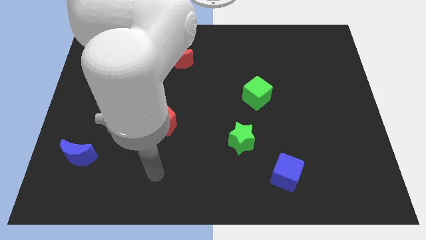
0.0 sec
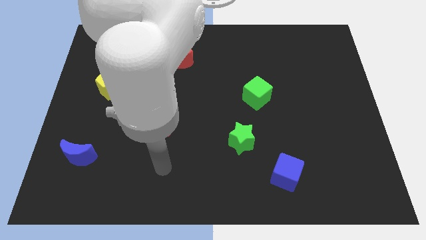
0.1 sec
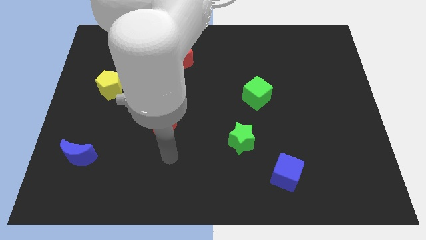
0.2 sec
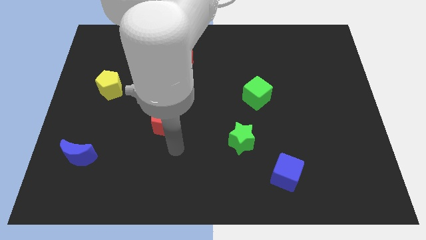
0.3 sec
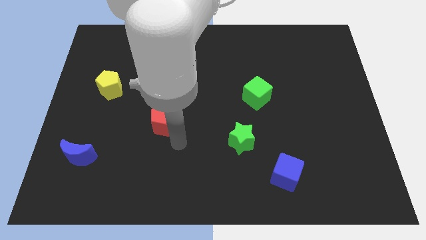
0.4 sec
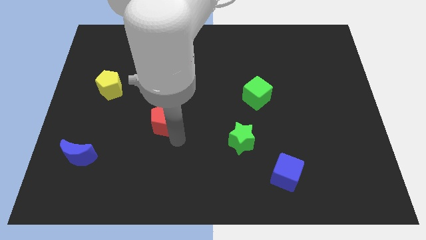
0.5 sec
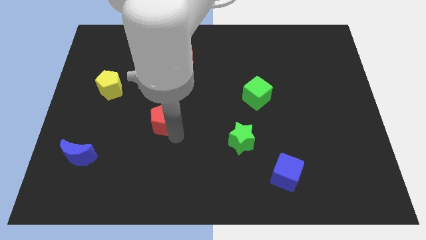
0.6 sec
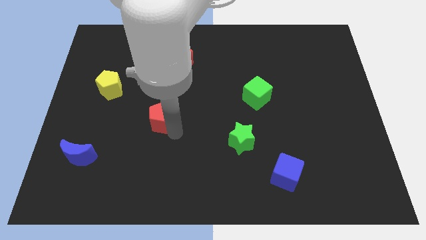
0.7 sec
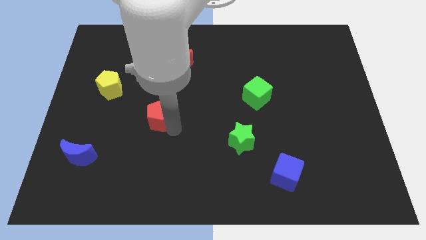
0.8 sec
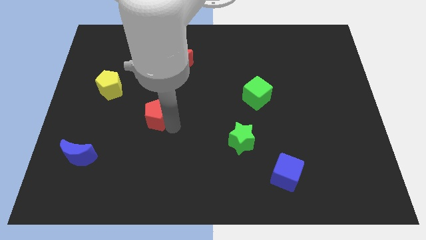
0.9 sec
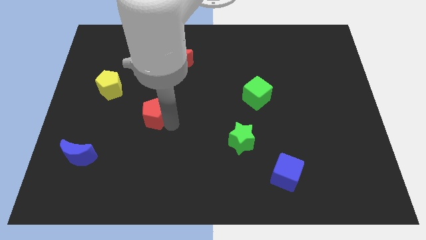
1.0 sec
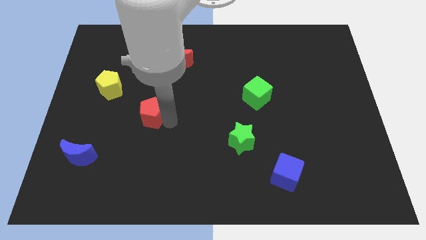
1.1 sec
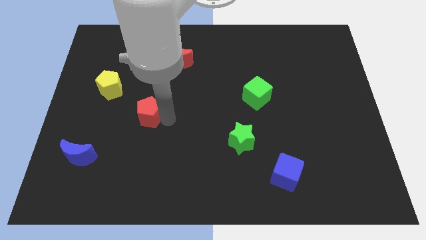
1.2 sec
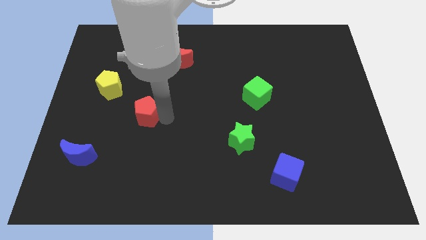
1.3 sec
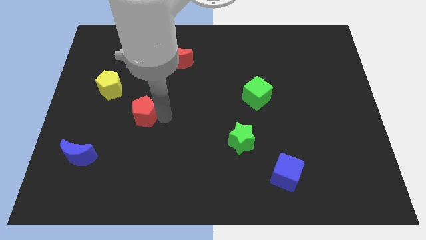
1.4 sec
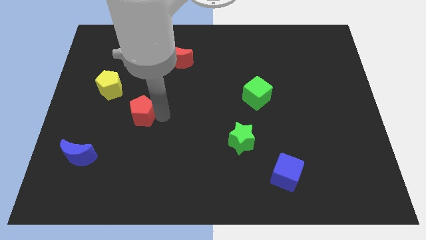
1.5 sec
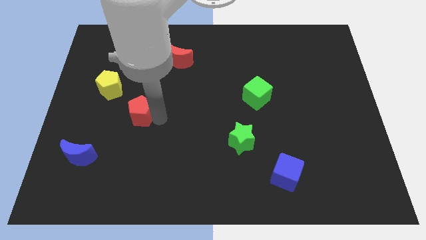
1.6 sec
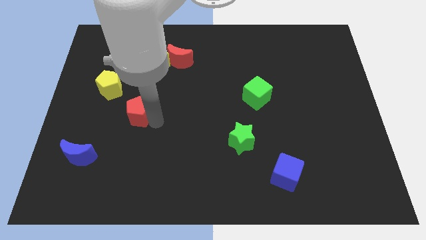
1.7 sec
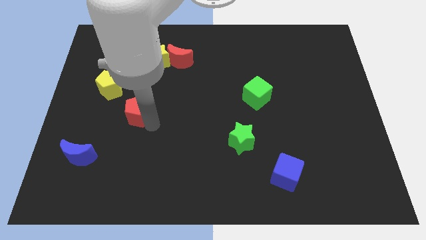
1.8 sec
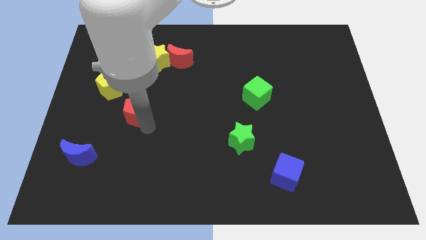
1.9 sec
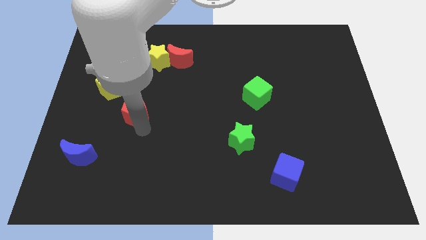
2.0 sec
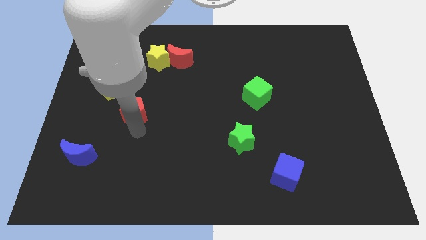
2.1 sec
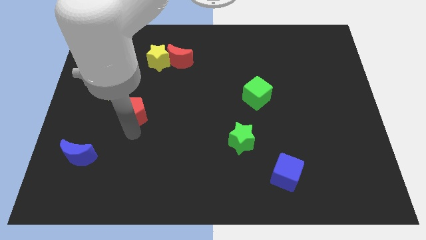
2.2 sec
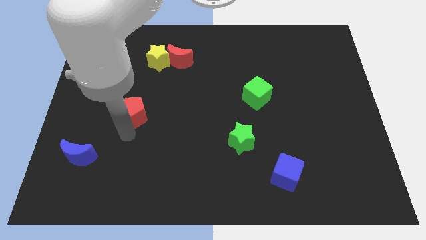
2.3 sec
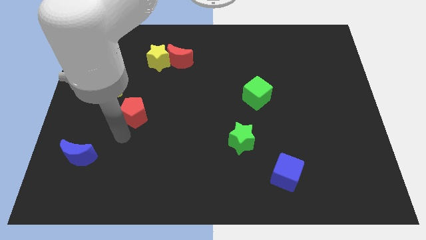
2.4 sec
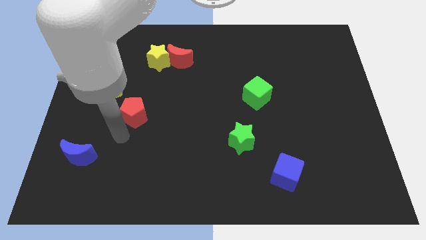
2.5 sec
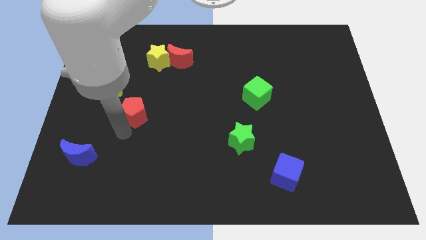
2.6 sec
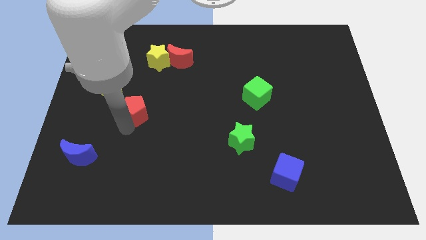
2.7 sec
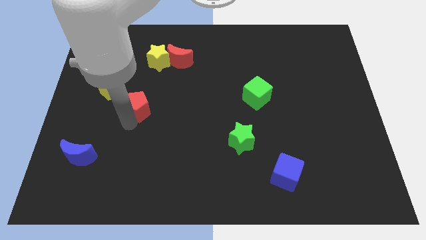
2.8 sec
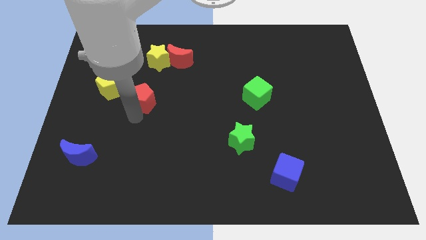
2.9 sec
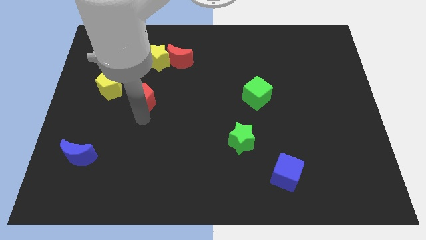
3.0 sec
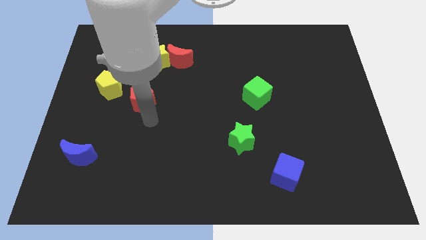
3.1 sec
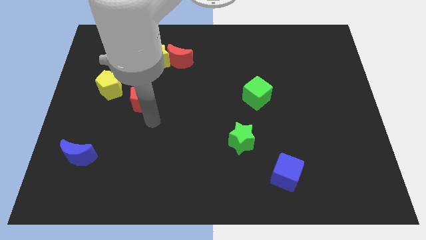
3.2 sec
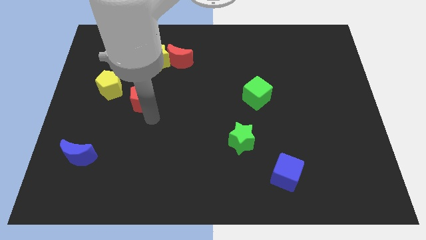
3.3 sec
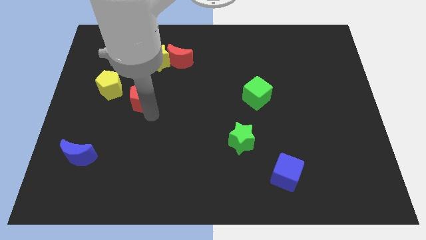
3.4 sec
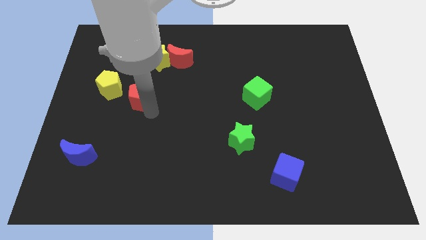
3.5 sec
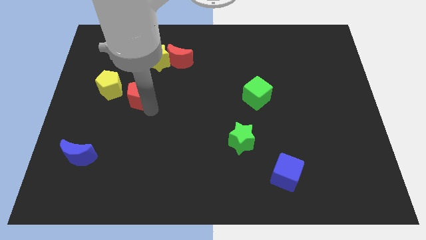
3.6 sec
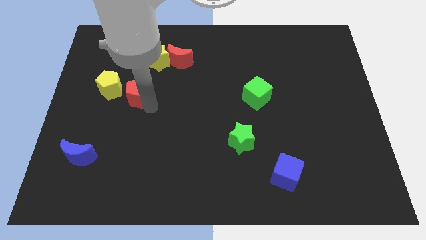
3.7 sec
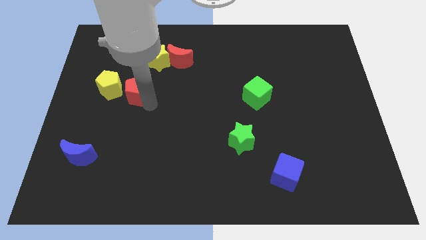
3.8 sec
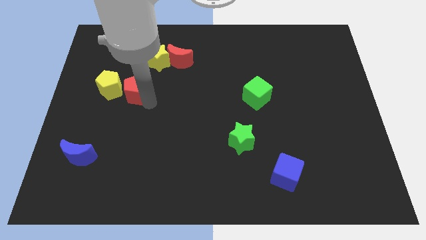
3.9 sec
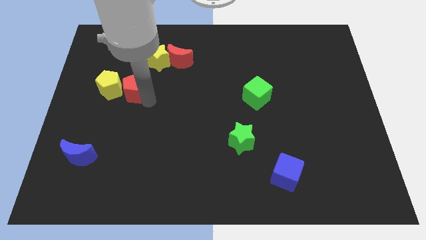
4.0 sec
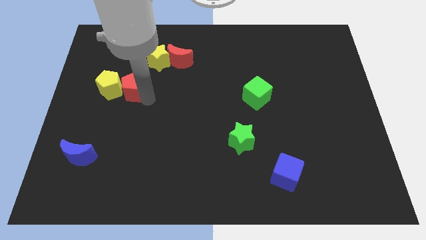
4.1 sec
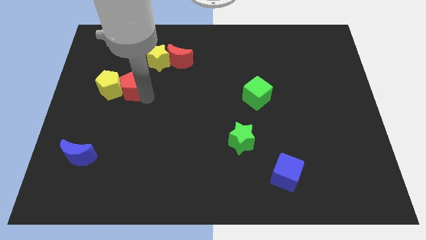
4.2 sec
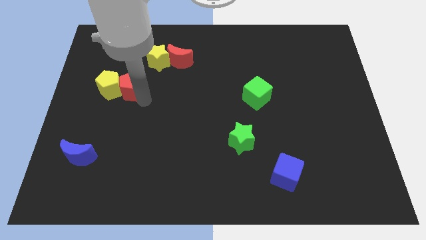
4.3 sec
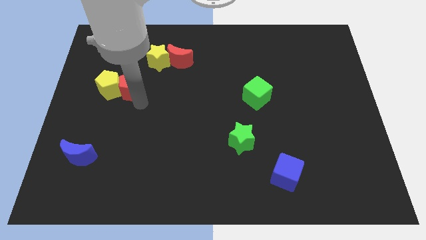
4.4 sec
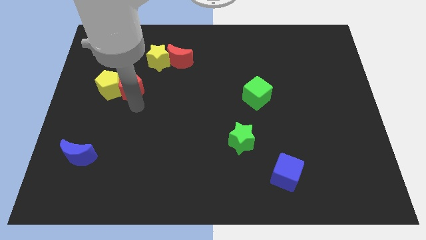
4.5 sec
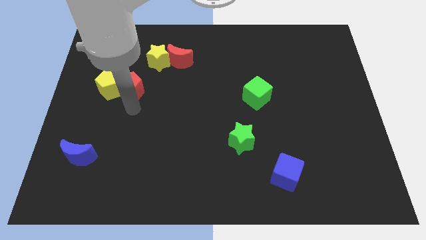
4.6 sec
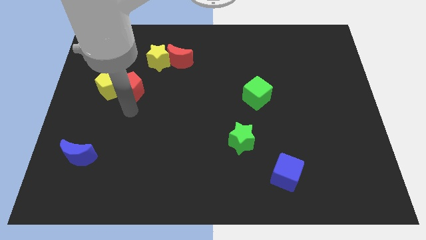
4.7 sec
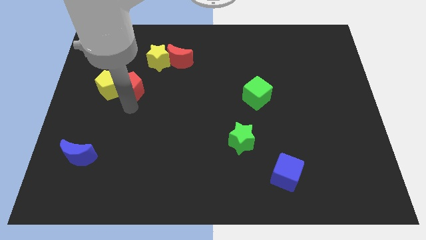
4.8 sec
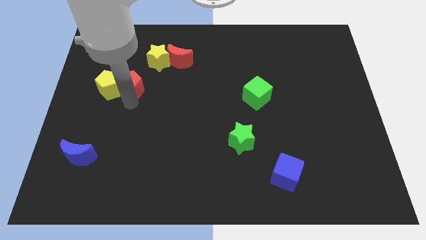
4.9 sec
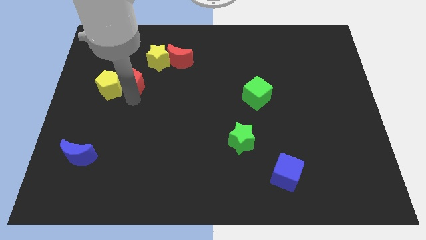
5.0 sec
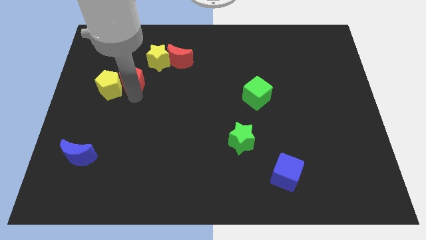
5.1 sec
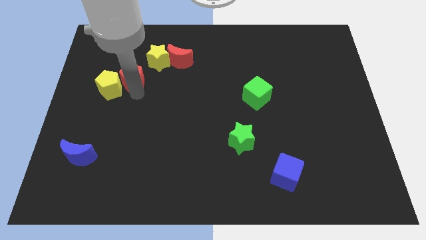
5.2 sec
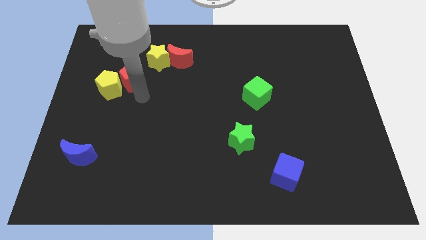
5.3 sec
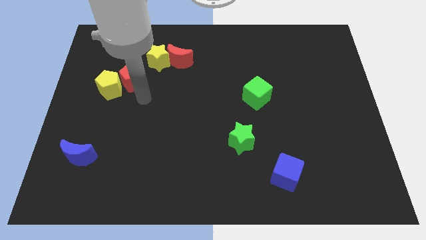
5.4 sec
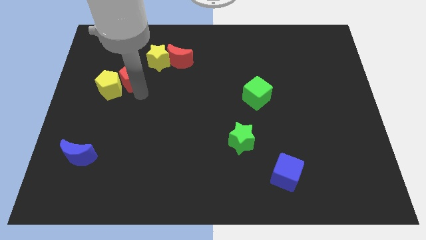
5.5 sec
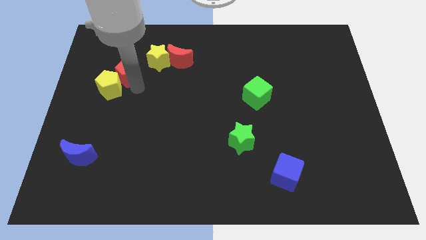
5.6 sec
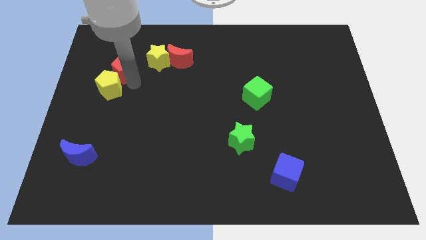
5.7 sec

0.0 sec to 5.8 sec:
push the red pentagon just left of the yellow star

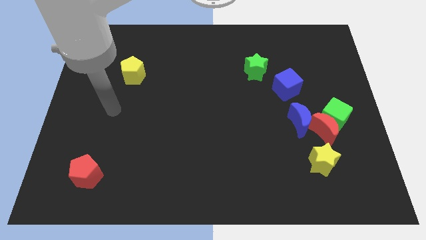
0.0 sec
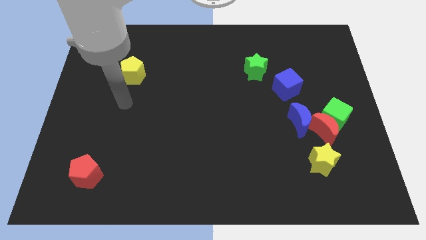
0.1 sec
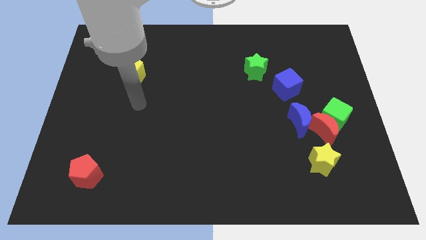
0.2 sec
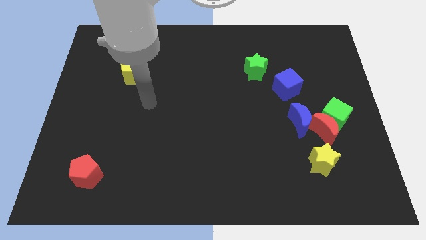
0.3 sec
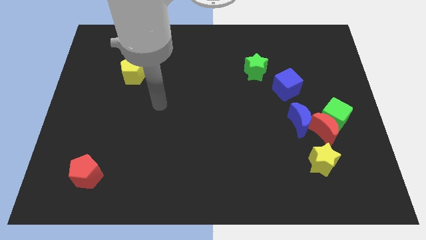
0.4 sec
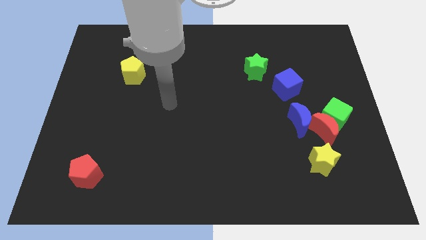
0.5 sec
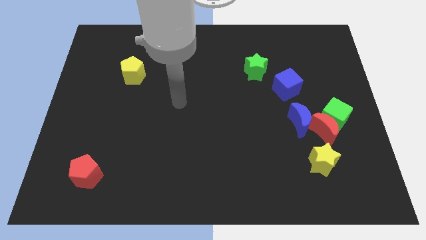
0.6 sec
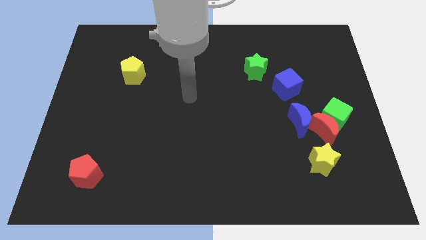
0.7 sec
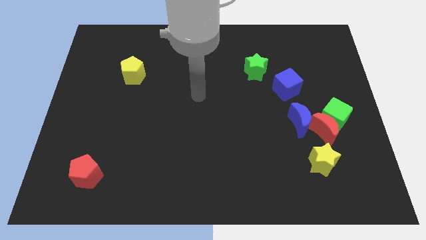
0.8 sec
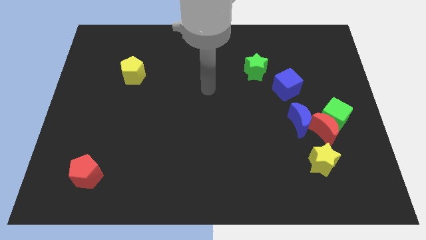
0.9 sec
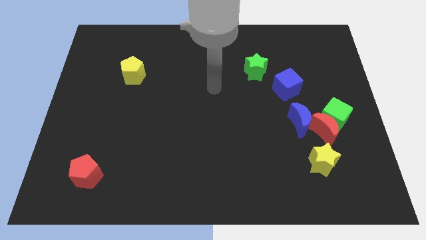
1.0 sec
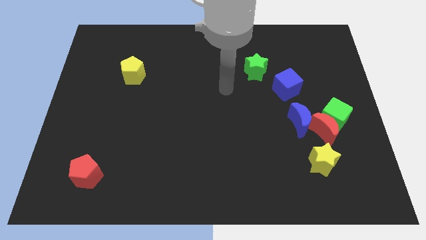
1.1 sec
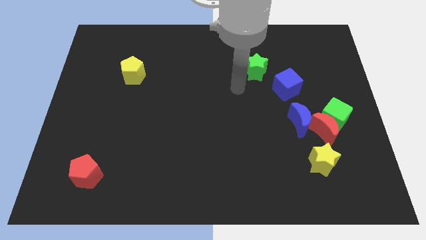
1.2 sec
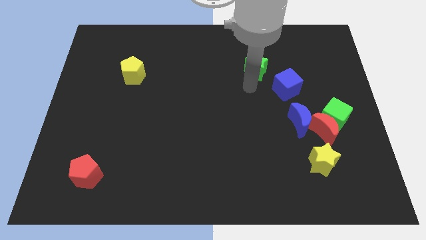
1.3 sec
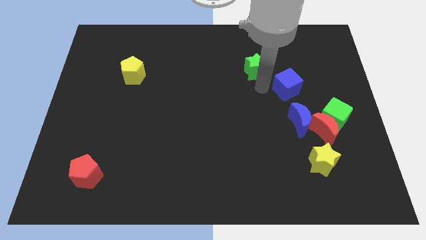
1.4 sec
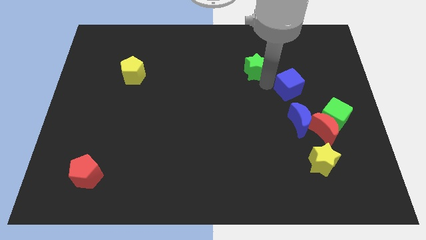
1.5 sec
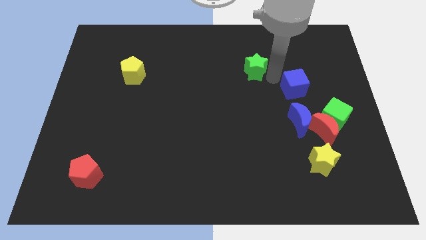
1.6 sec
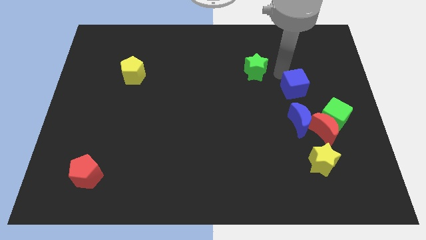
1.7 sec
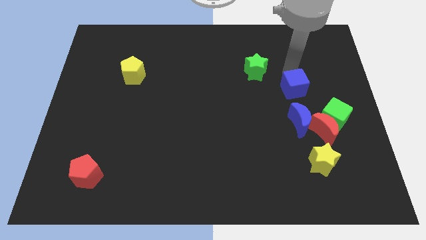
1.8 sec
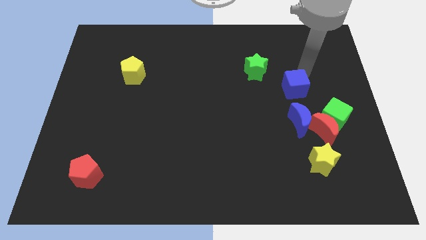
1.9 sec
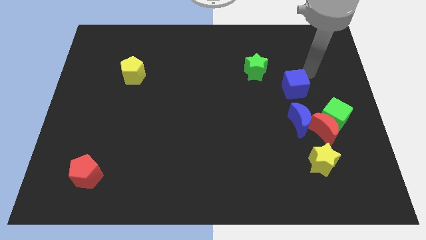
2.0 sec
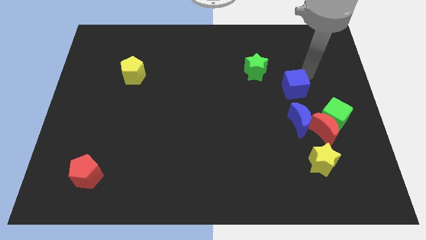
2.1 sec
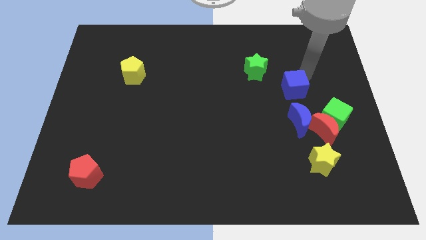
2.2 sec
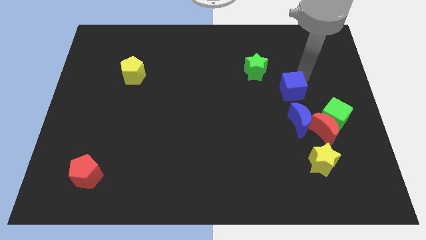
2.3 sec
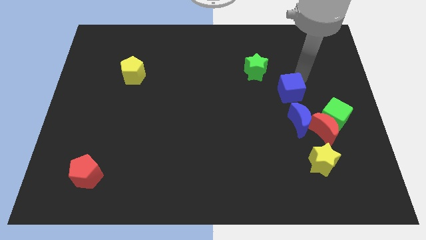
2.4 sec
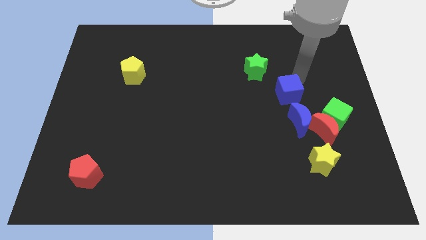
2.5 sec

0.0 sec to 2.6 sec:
push the blue cube to the top left side of the blue moon
